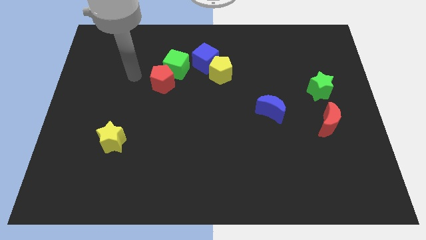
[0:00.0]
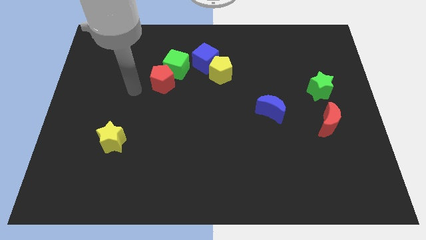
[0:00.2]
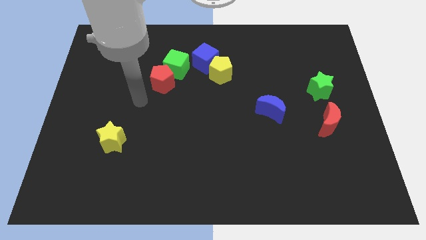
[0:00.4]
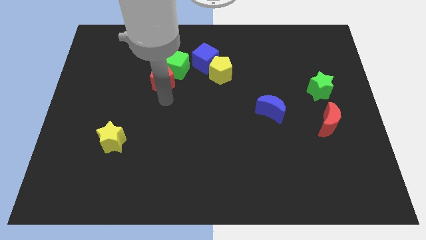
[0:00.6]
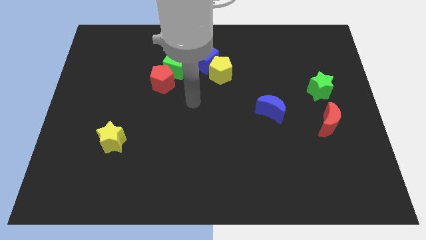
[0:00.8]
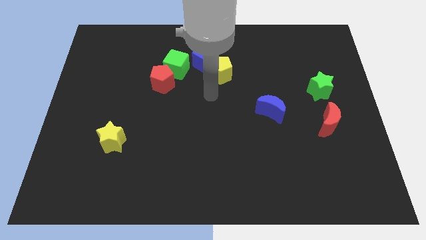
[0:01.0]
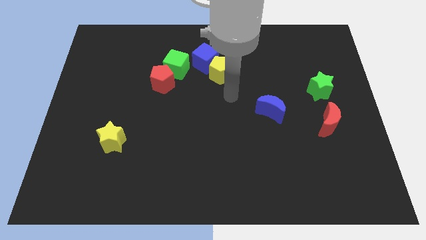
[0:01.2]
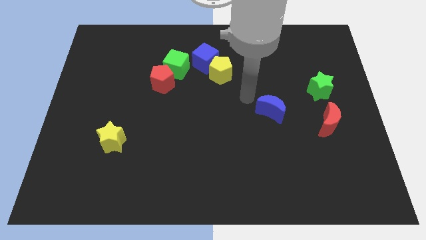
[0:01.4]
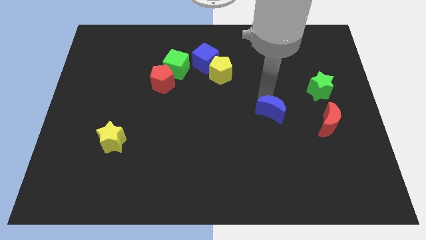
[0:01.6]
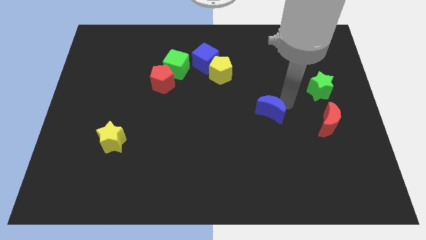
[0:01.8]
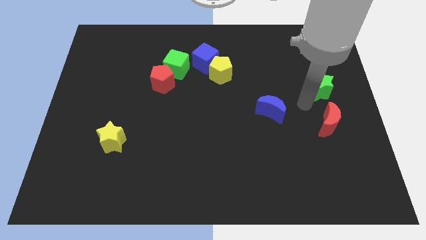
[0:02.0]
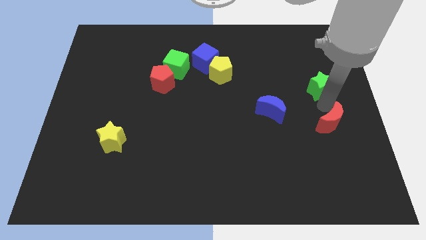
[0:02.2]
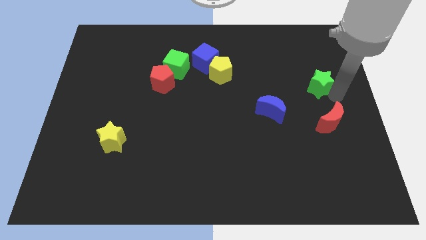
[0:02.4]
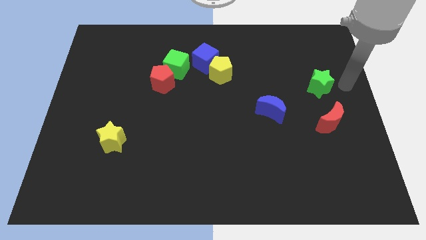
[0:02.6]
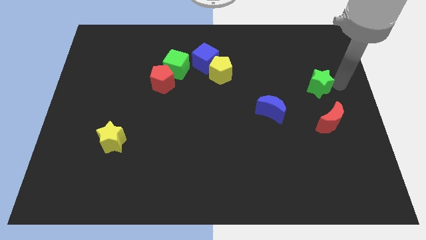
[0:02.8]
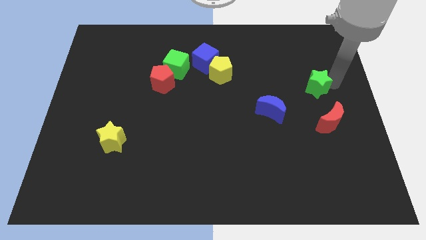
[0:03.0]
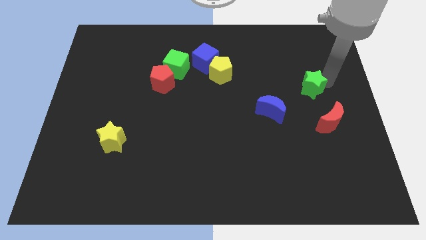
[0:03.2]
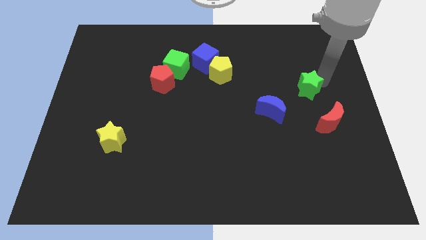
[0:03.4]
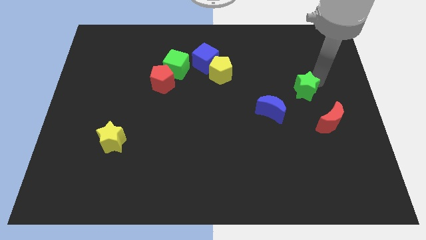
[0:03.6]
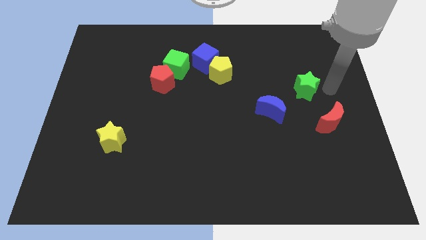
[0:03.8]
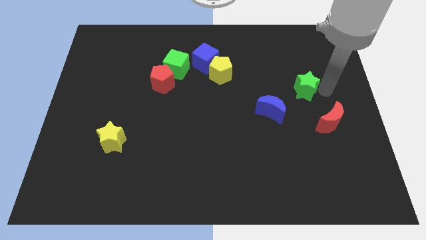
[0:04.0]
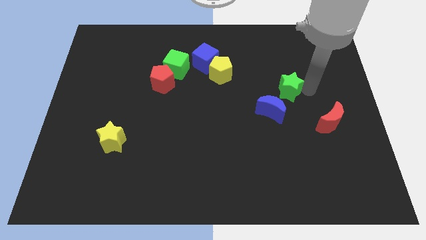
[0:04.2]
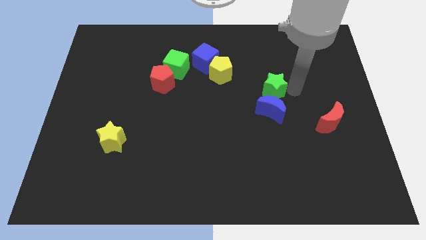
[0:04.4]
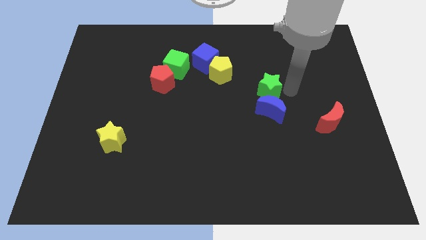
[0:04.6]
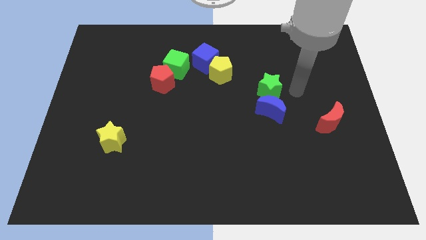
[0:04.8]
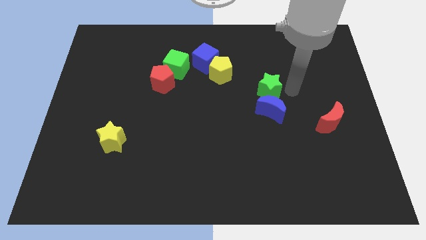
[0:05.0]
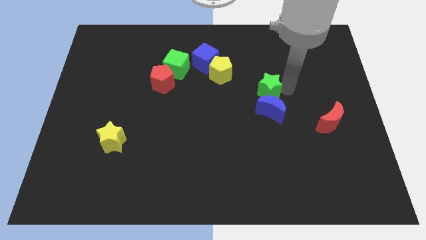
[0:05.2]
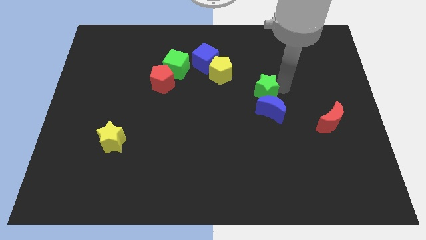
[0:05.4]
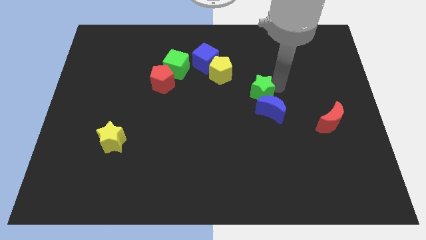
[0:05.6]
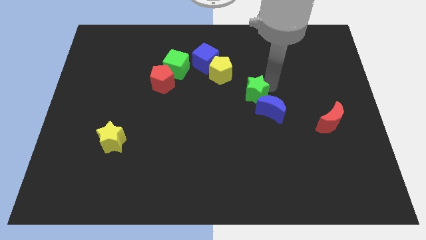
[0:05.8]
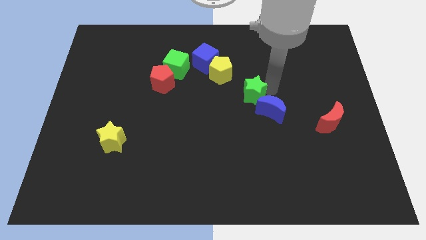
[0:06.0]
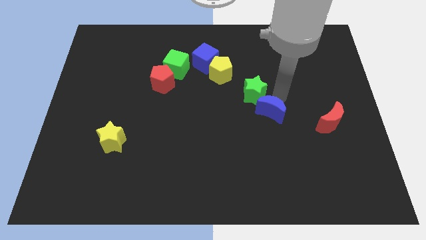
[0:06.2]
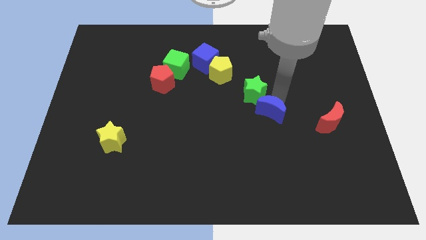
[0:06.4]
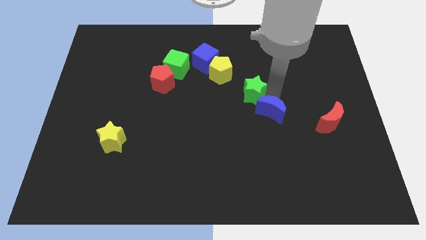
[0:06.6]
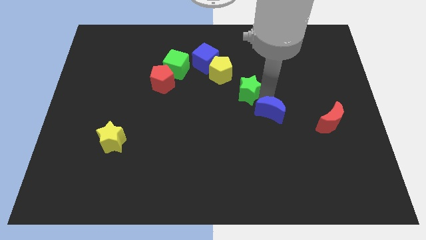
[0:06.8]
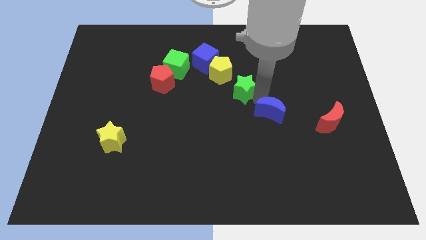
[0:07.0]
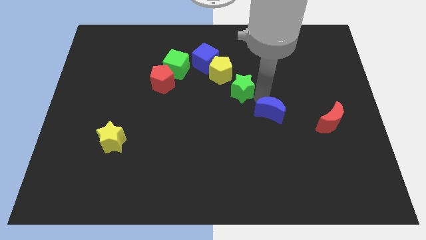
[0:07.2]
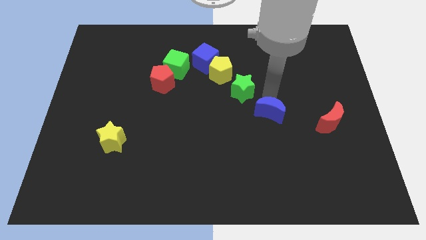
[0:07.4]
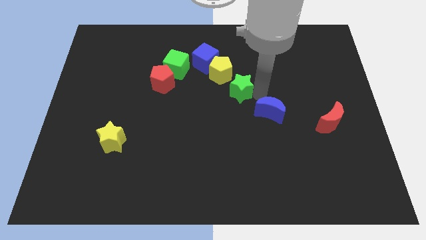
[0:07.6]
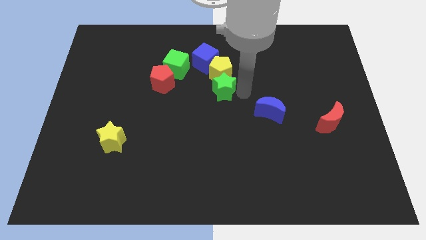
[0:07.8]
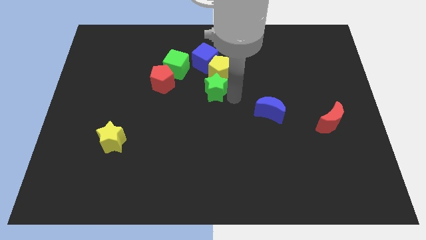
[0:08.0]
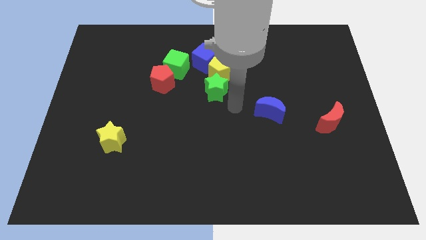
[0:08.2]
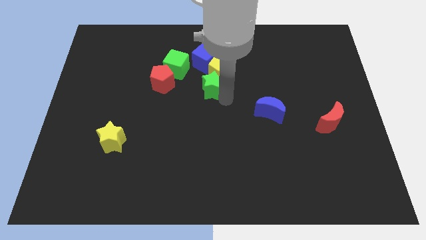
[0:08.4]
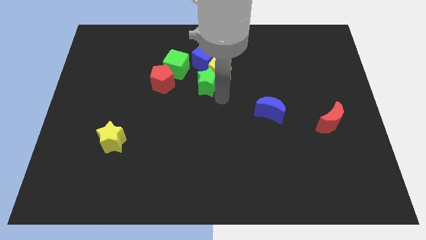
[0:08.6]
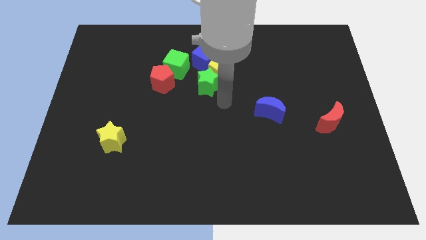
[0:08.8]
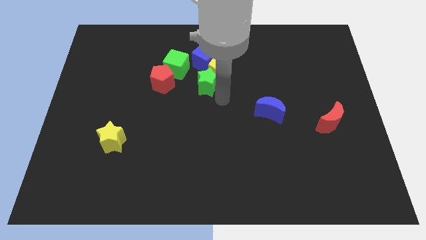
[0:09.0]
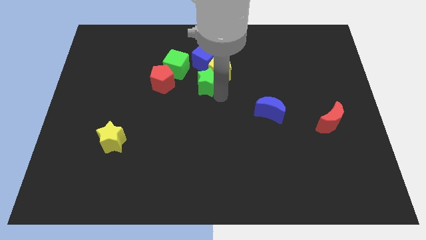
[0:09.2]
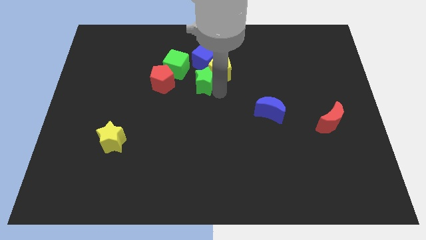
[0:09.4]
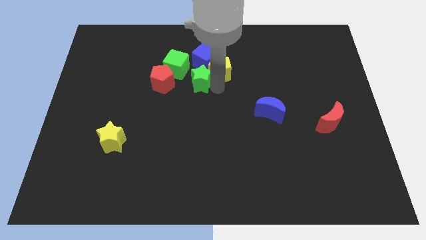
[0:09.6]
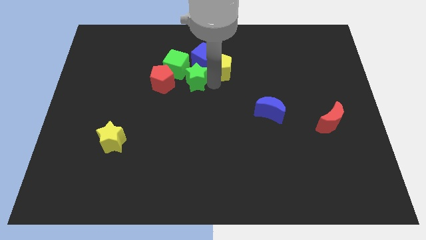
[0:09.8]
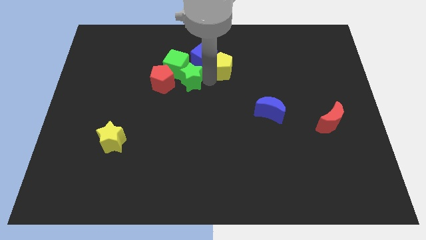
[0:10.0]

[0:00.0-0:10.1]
move the green star towards the green cube

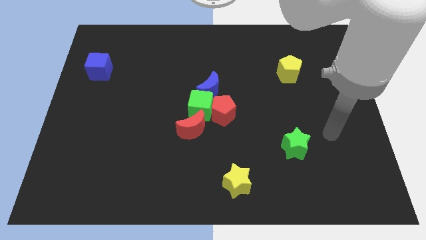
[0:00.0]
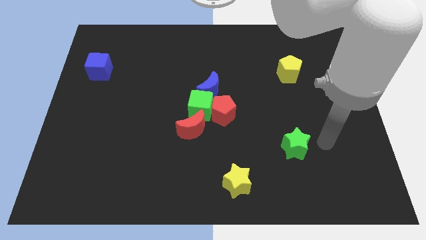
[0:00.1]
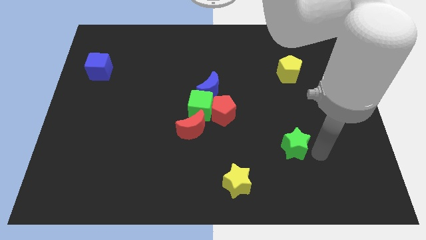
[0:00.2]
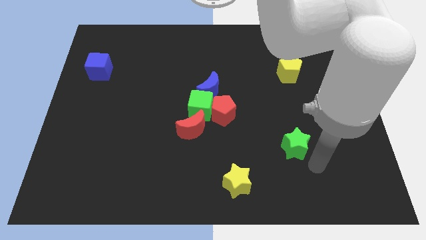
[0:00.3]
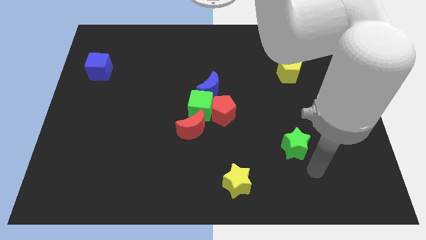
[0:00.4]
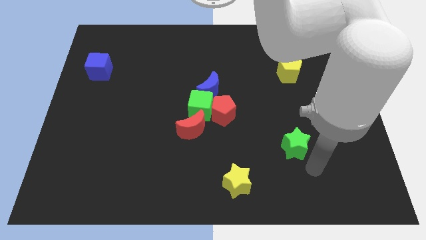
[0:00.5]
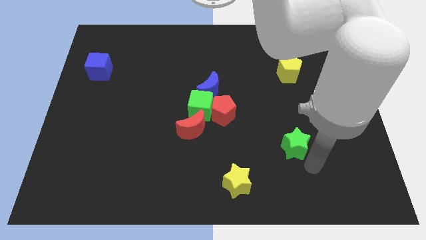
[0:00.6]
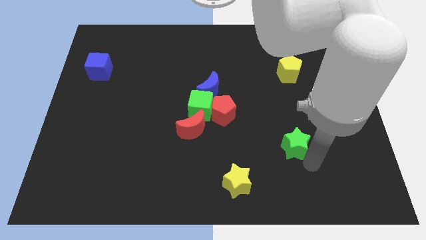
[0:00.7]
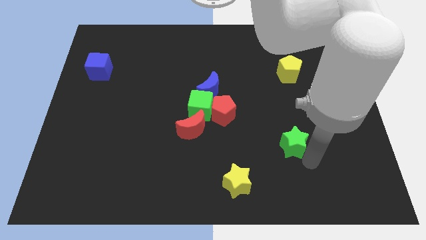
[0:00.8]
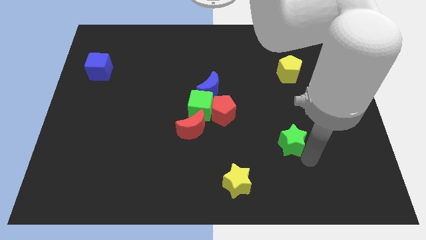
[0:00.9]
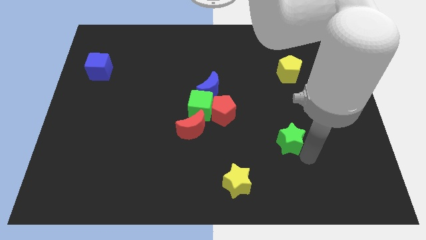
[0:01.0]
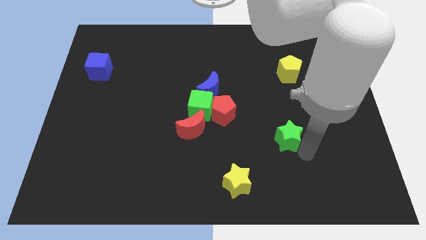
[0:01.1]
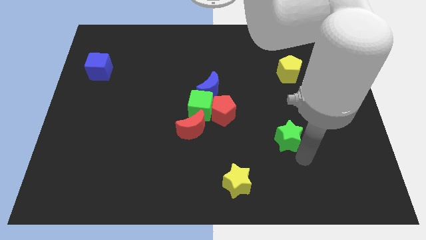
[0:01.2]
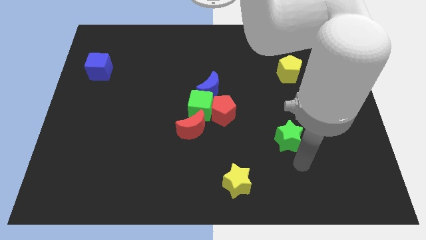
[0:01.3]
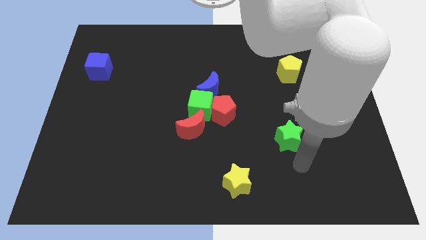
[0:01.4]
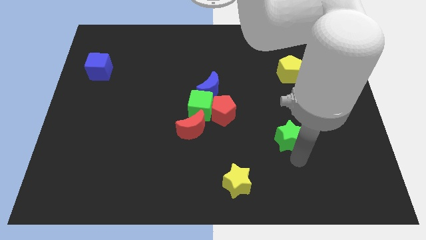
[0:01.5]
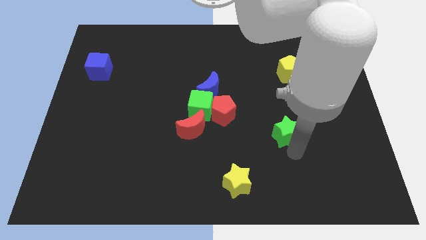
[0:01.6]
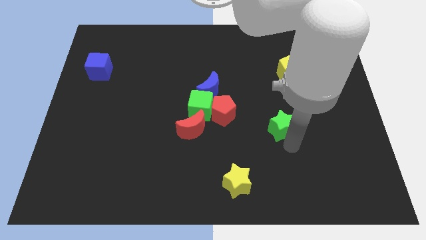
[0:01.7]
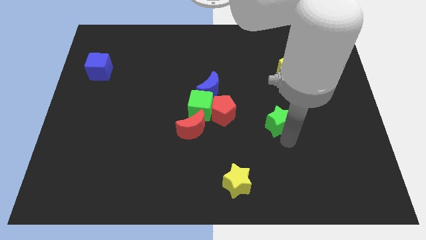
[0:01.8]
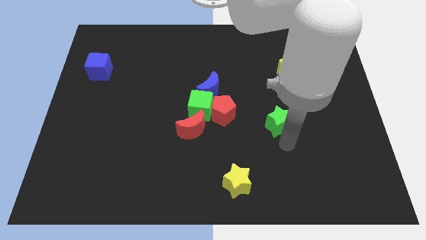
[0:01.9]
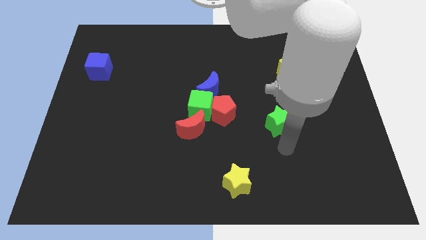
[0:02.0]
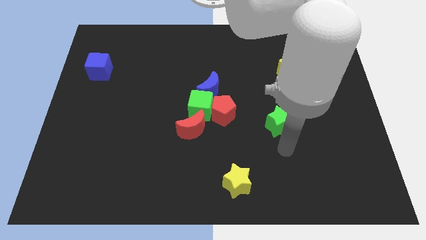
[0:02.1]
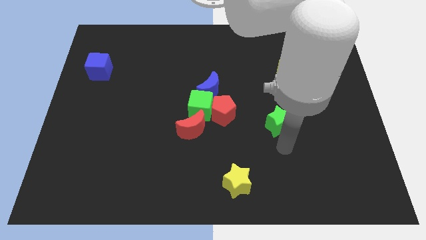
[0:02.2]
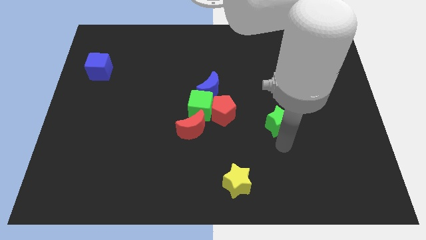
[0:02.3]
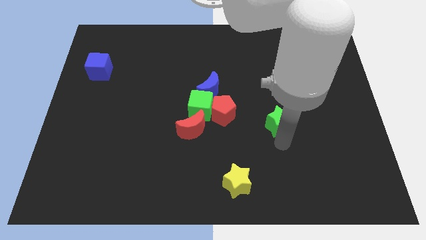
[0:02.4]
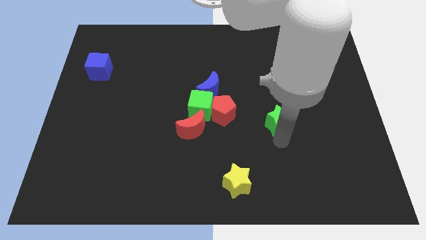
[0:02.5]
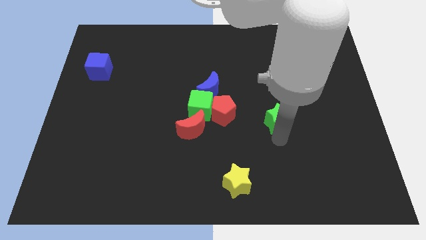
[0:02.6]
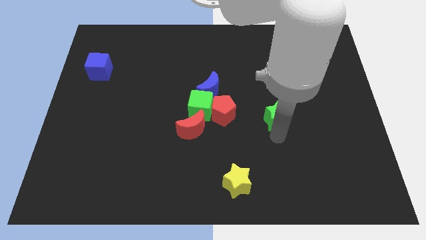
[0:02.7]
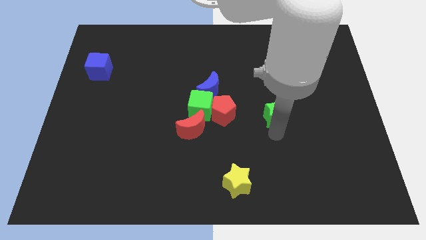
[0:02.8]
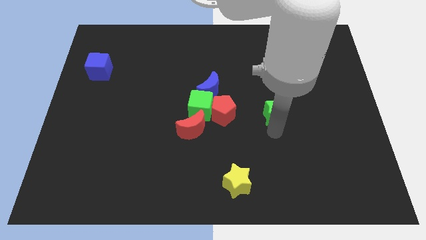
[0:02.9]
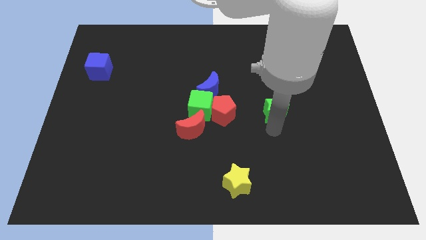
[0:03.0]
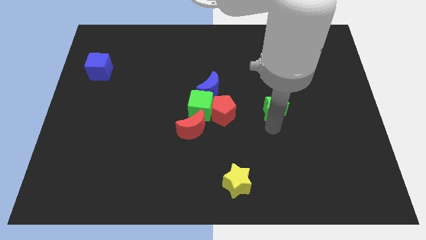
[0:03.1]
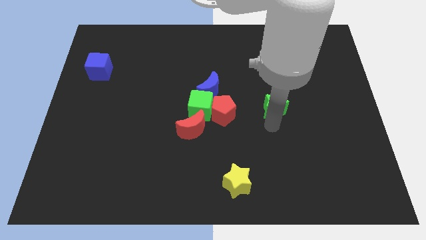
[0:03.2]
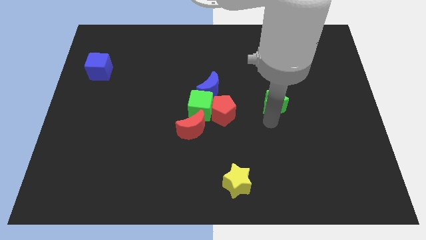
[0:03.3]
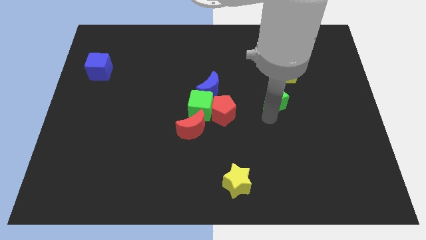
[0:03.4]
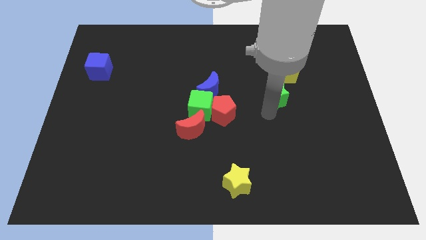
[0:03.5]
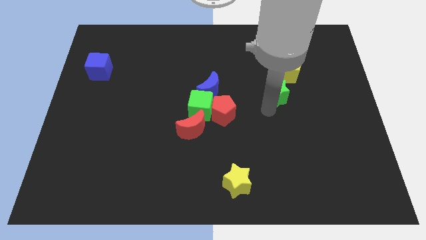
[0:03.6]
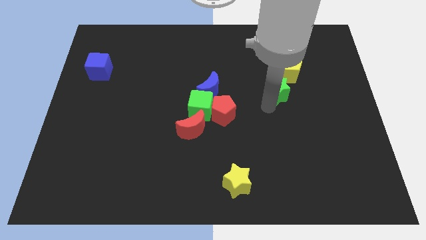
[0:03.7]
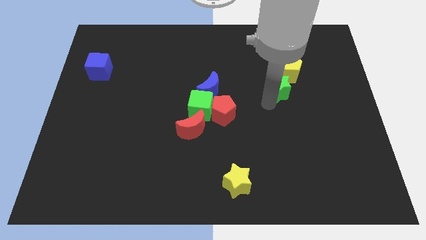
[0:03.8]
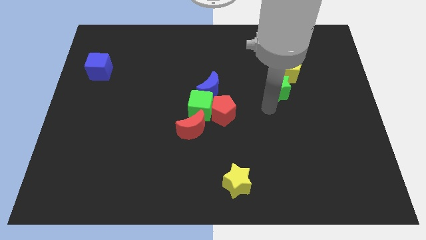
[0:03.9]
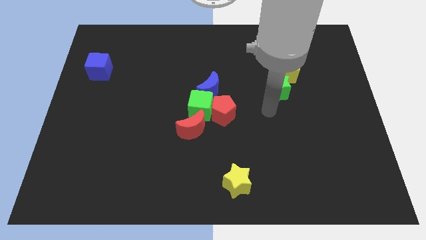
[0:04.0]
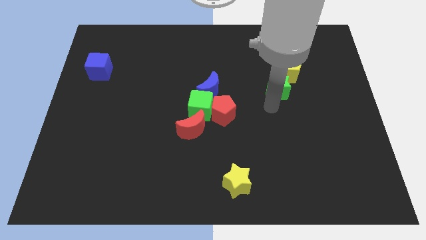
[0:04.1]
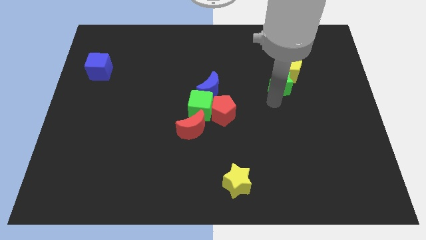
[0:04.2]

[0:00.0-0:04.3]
slide the green star close to the yellow pentagon
